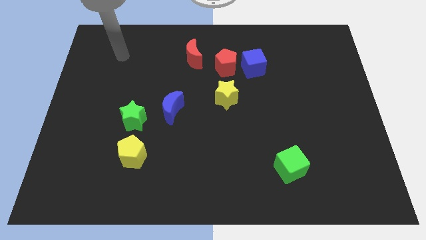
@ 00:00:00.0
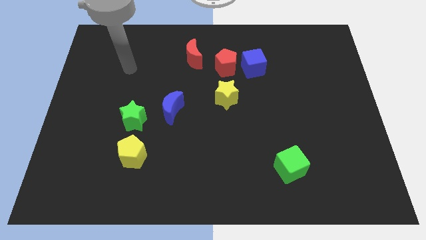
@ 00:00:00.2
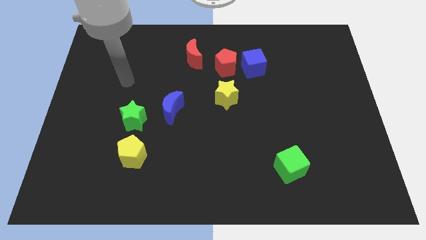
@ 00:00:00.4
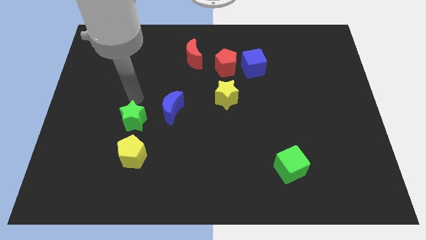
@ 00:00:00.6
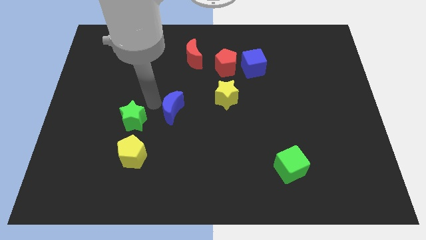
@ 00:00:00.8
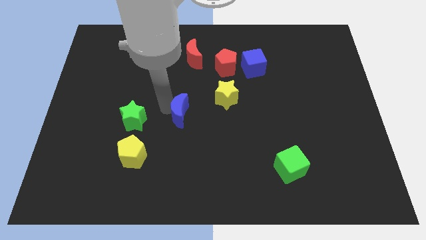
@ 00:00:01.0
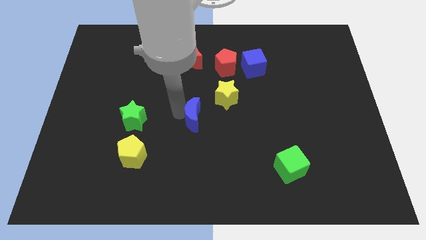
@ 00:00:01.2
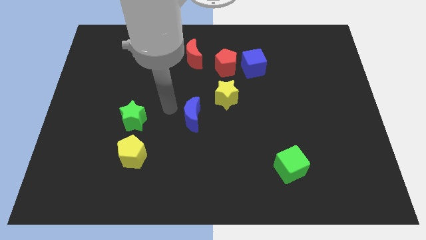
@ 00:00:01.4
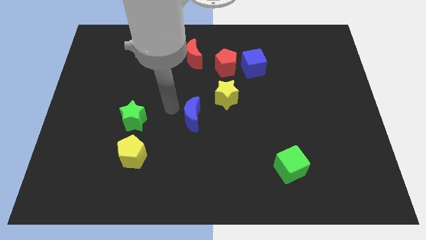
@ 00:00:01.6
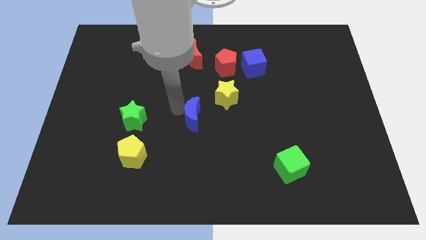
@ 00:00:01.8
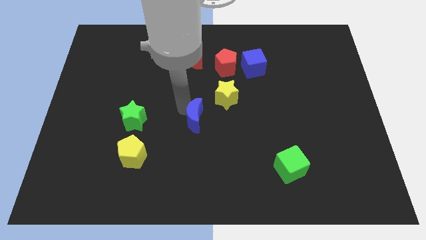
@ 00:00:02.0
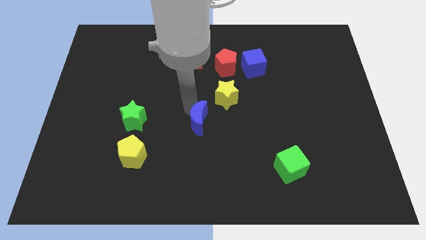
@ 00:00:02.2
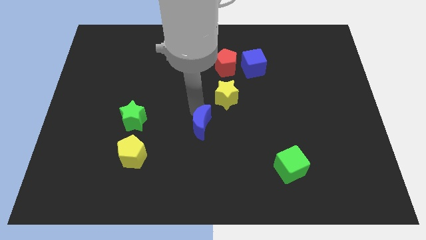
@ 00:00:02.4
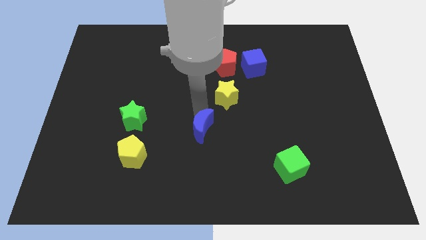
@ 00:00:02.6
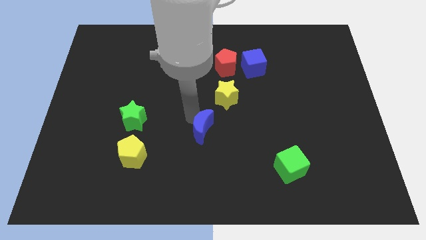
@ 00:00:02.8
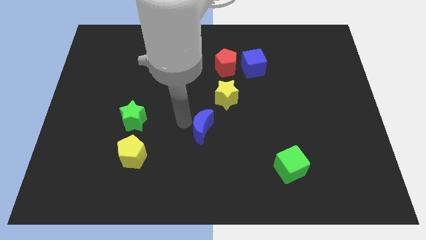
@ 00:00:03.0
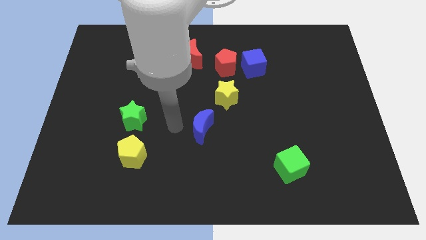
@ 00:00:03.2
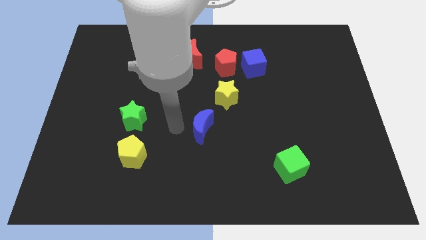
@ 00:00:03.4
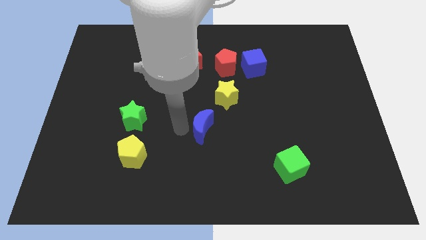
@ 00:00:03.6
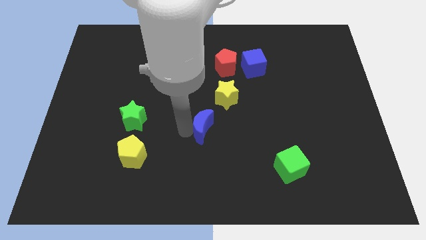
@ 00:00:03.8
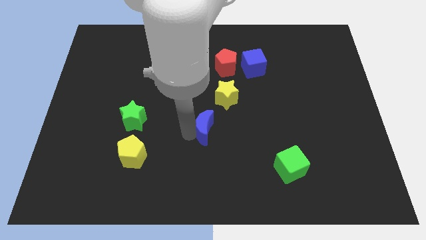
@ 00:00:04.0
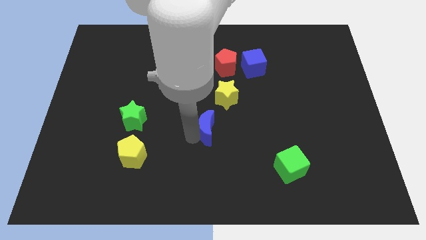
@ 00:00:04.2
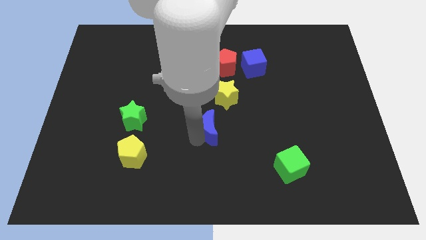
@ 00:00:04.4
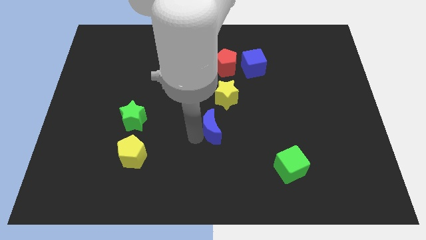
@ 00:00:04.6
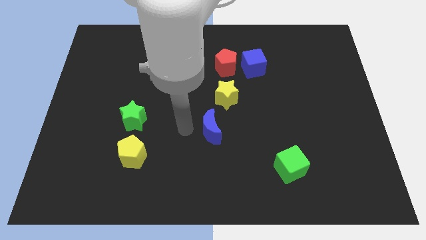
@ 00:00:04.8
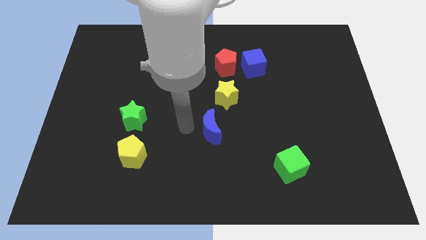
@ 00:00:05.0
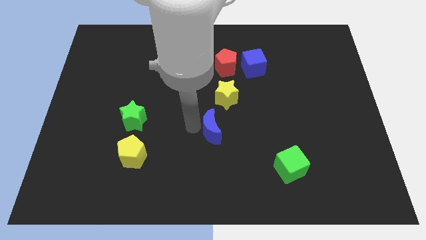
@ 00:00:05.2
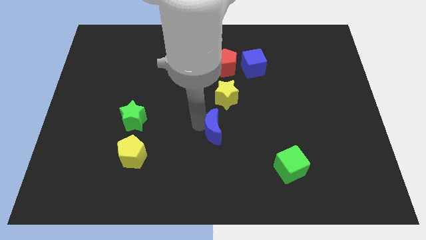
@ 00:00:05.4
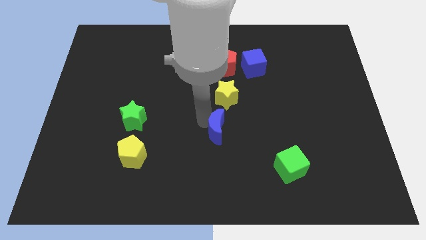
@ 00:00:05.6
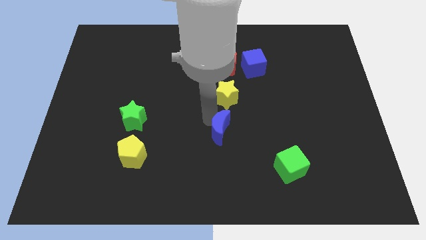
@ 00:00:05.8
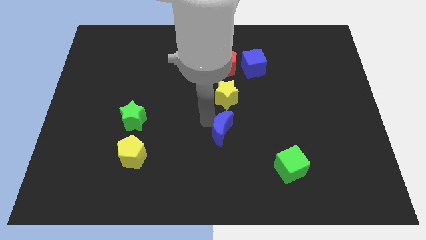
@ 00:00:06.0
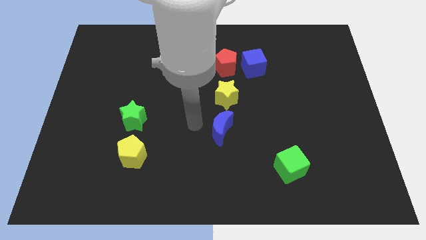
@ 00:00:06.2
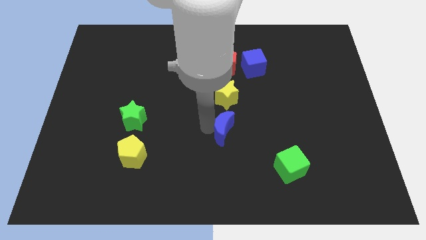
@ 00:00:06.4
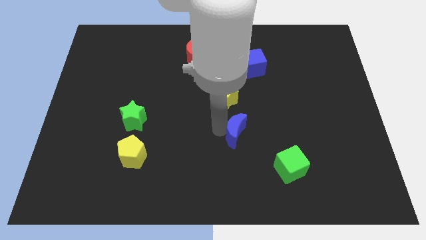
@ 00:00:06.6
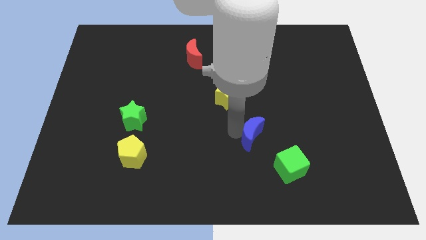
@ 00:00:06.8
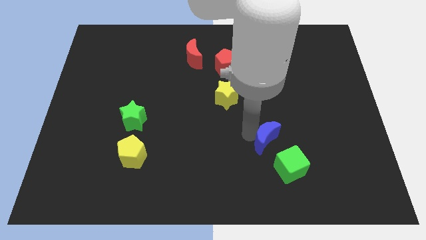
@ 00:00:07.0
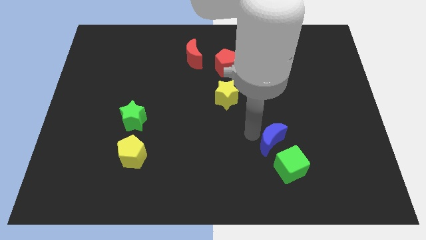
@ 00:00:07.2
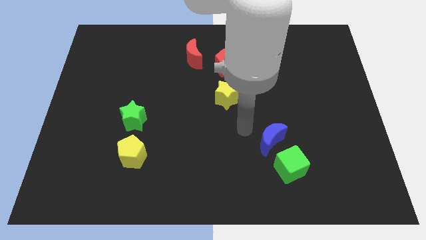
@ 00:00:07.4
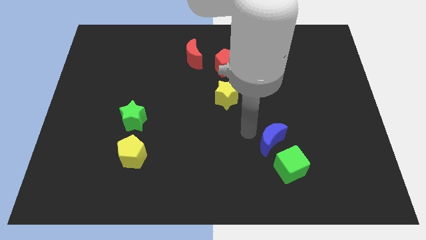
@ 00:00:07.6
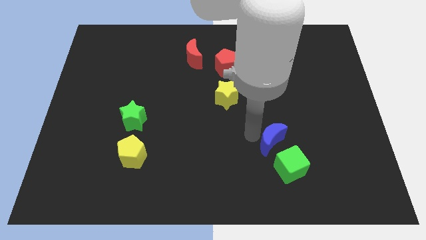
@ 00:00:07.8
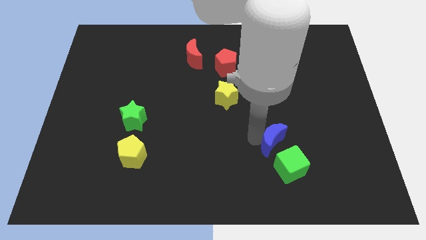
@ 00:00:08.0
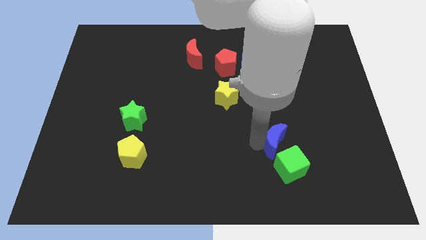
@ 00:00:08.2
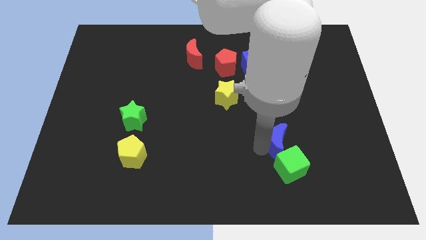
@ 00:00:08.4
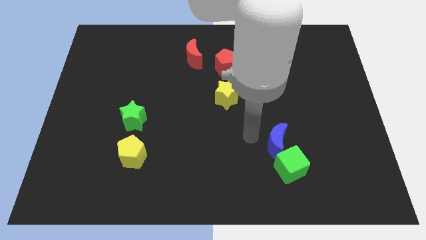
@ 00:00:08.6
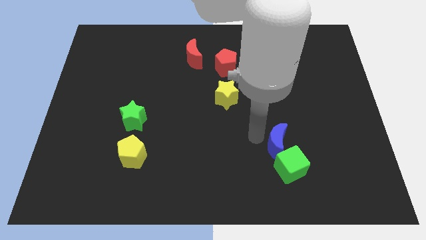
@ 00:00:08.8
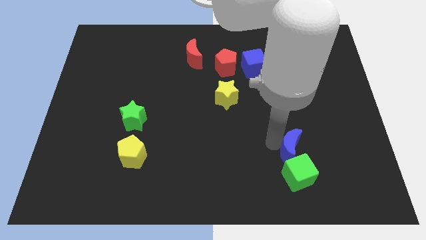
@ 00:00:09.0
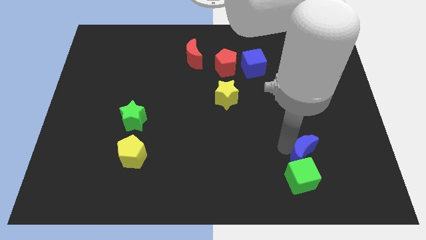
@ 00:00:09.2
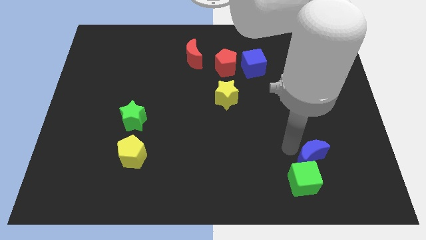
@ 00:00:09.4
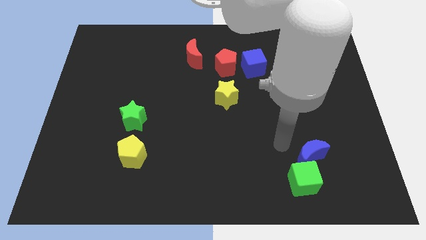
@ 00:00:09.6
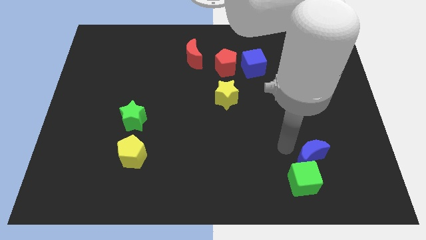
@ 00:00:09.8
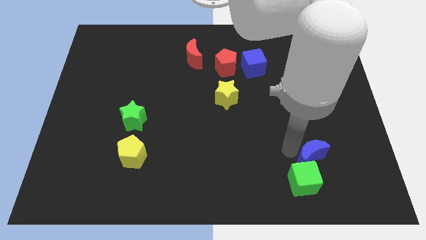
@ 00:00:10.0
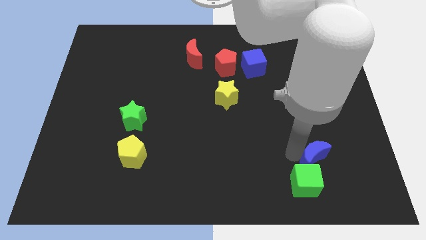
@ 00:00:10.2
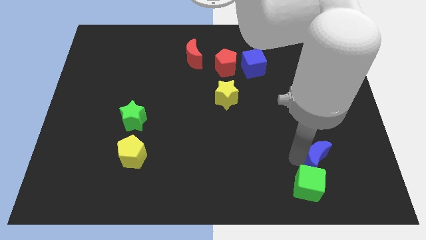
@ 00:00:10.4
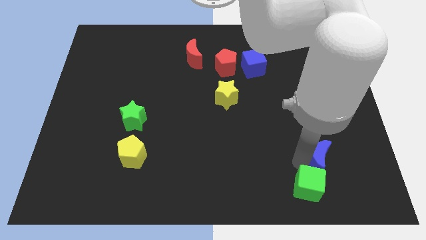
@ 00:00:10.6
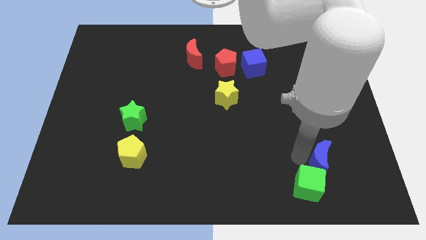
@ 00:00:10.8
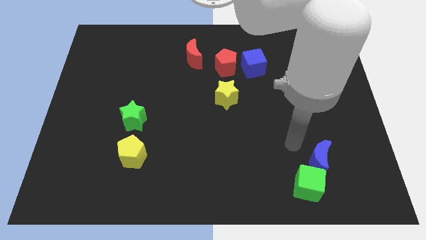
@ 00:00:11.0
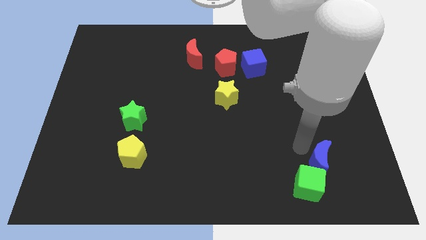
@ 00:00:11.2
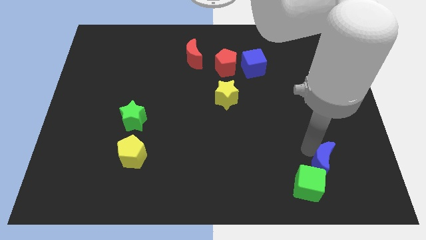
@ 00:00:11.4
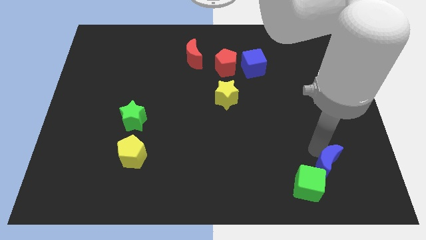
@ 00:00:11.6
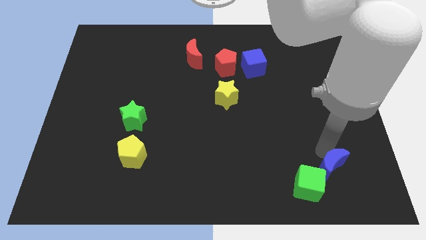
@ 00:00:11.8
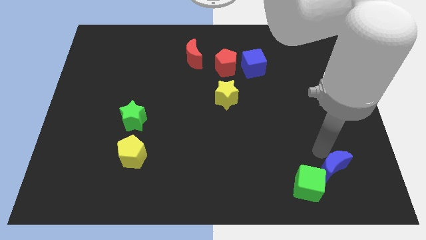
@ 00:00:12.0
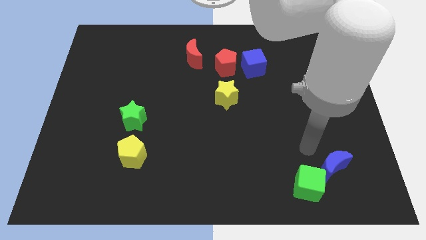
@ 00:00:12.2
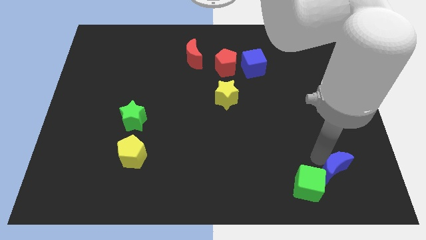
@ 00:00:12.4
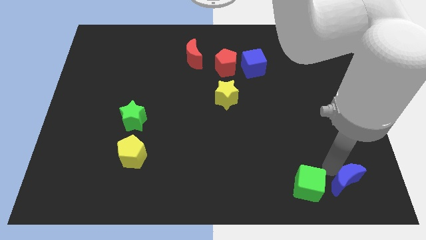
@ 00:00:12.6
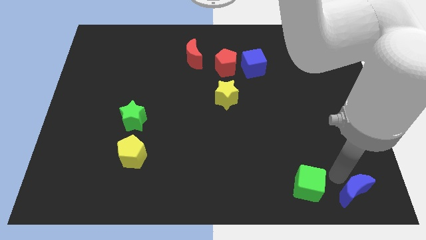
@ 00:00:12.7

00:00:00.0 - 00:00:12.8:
put the blue moon to the bottom right corner
